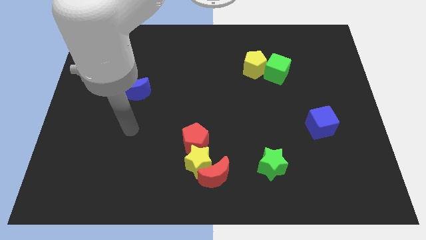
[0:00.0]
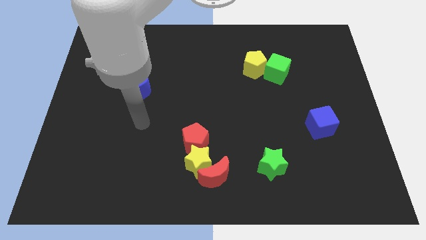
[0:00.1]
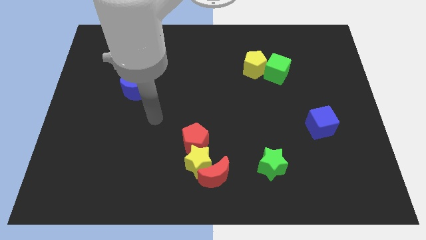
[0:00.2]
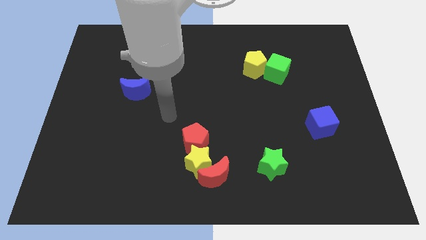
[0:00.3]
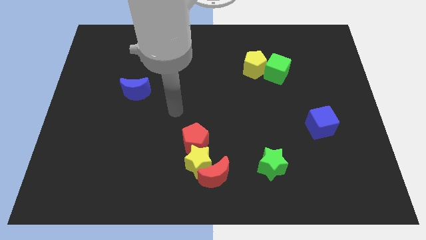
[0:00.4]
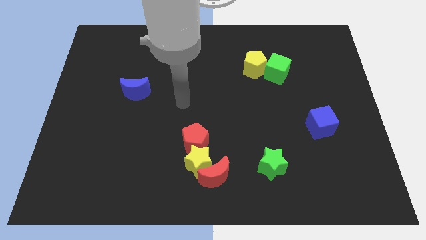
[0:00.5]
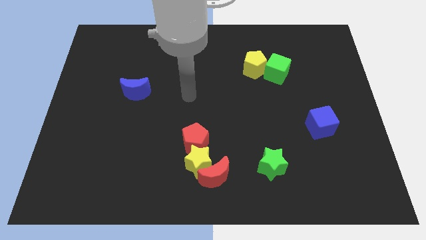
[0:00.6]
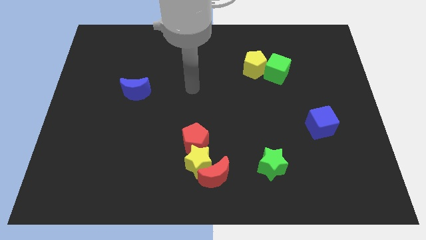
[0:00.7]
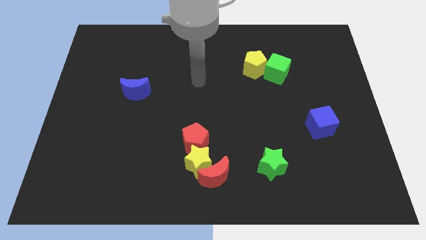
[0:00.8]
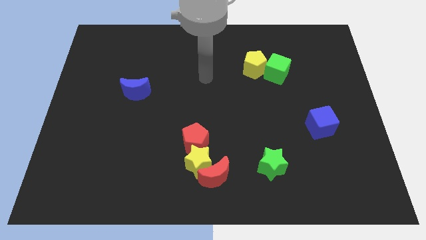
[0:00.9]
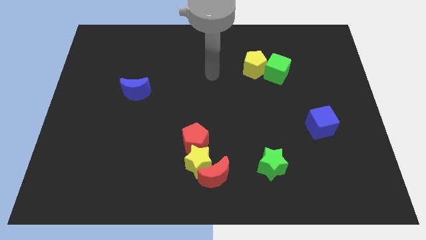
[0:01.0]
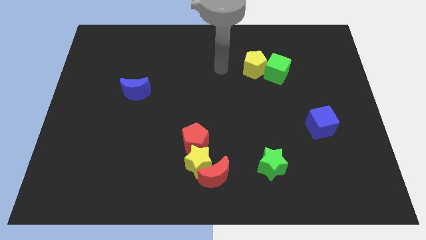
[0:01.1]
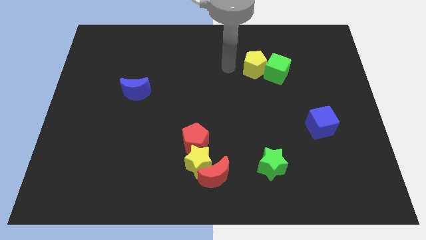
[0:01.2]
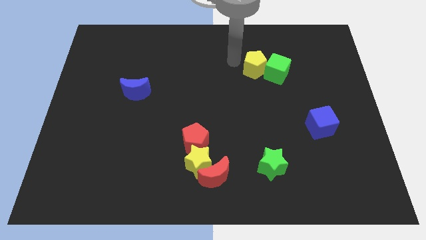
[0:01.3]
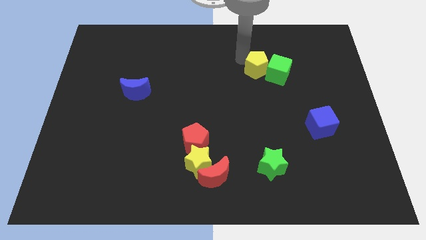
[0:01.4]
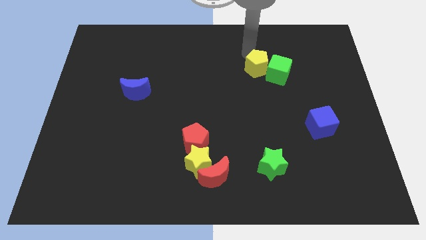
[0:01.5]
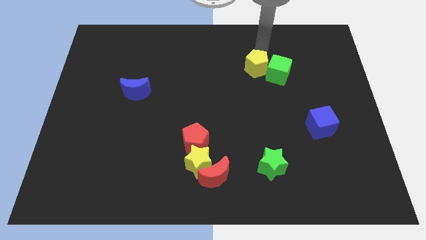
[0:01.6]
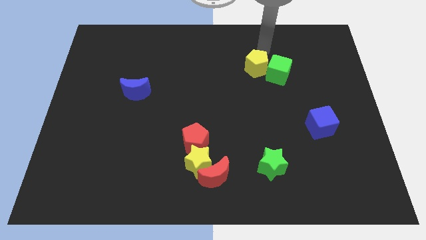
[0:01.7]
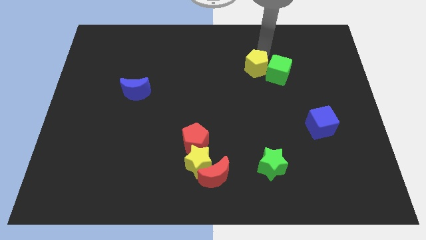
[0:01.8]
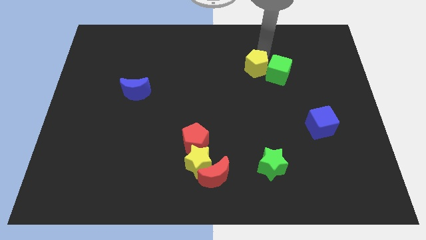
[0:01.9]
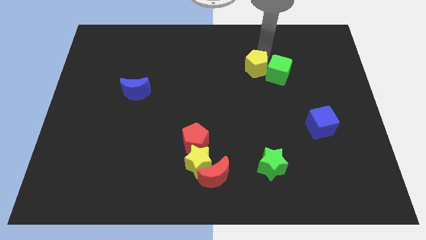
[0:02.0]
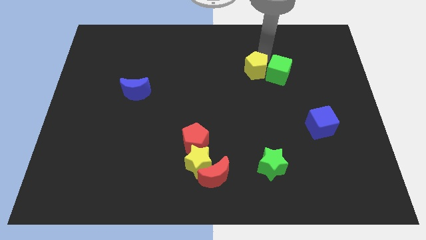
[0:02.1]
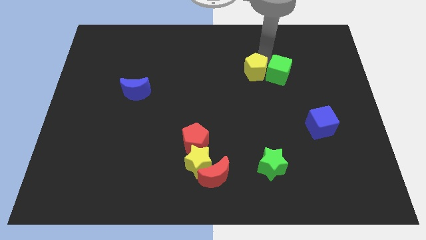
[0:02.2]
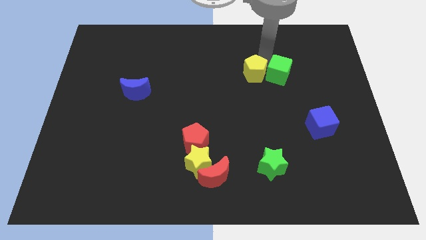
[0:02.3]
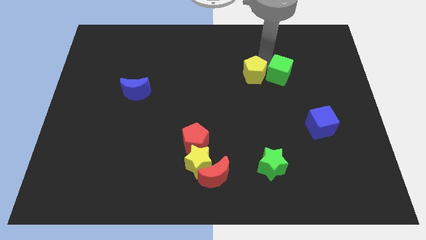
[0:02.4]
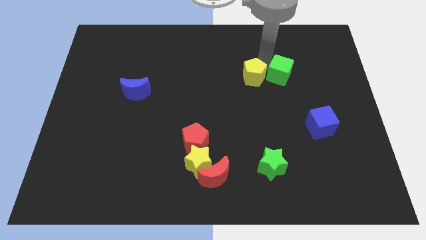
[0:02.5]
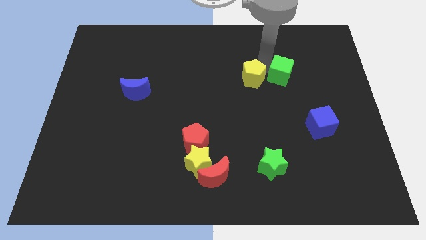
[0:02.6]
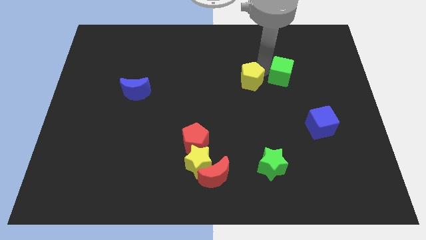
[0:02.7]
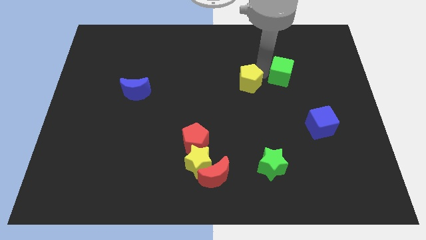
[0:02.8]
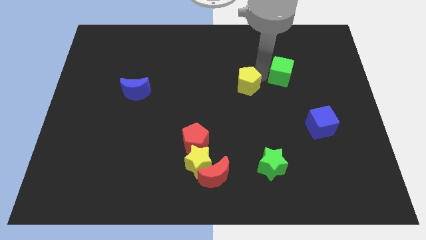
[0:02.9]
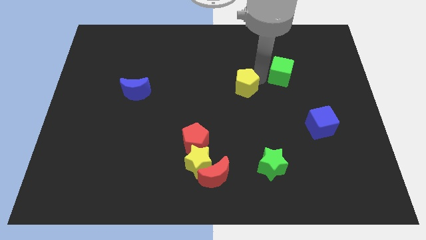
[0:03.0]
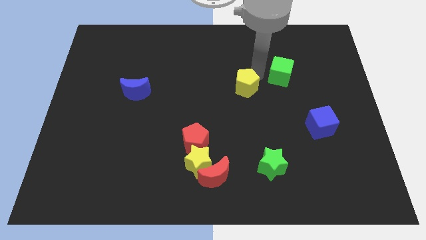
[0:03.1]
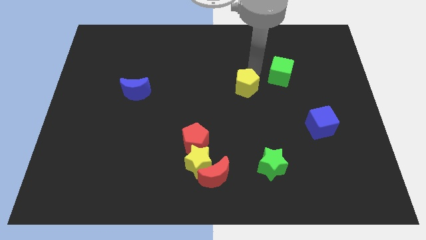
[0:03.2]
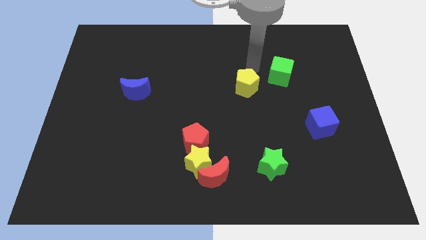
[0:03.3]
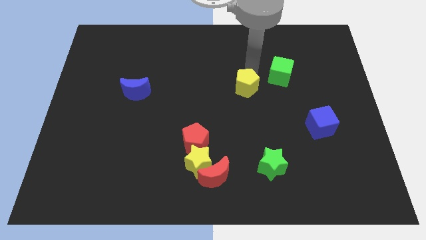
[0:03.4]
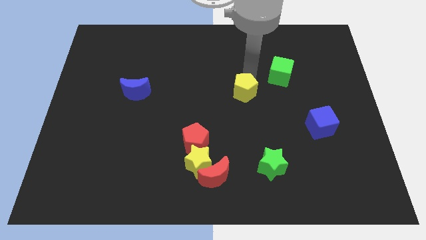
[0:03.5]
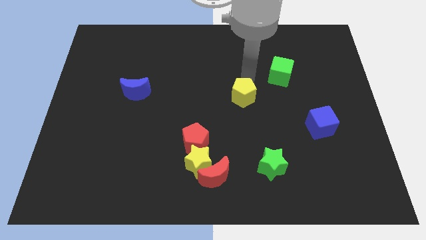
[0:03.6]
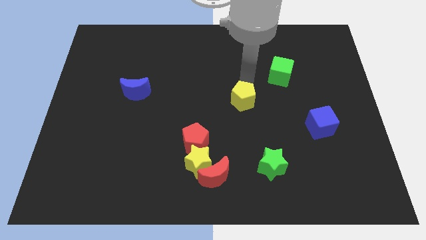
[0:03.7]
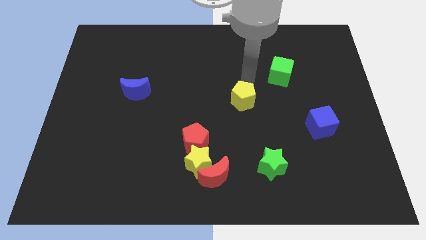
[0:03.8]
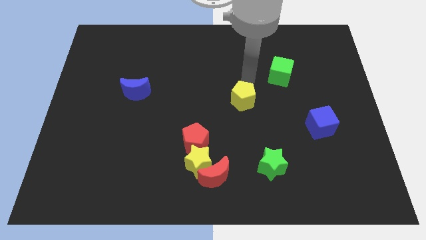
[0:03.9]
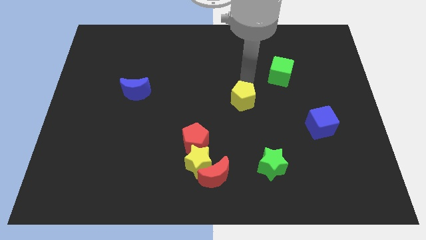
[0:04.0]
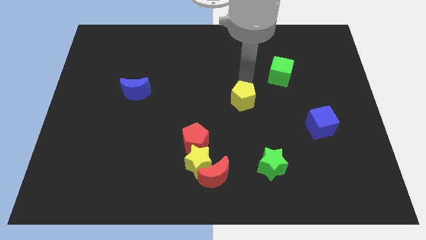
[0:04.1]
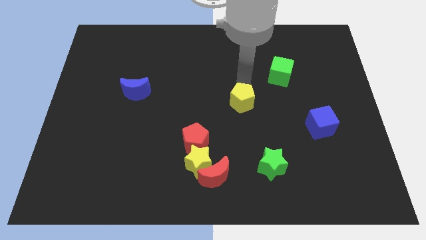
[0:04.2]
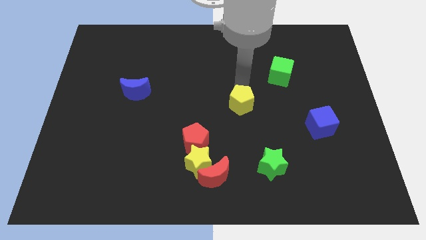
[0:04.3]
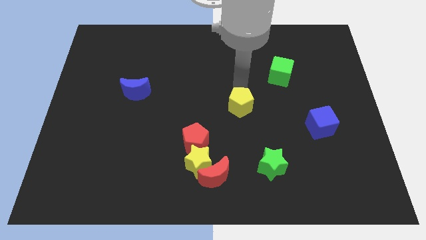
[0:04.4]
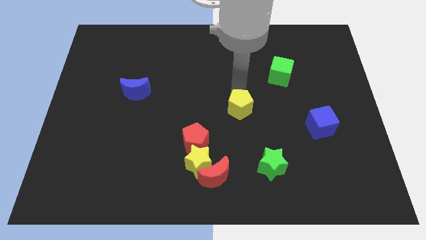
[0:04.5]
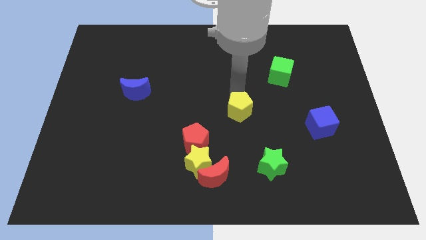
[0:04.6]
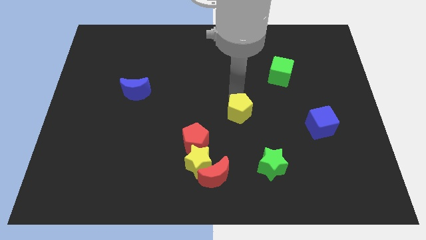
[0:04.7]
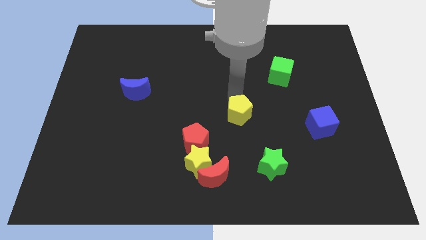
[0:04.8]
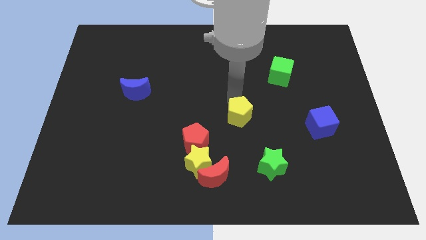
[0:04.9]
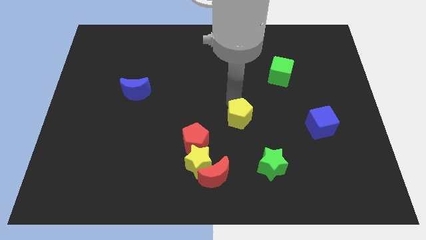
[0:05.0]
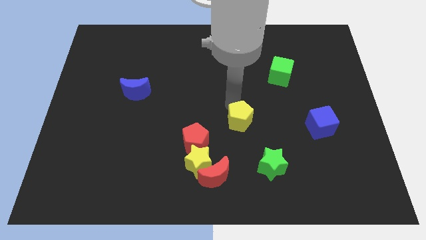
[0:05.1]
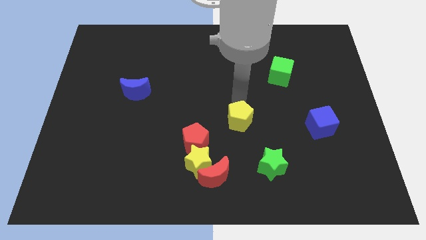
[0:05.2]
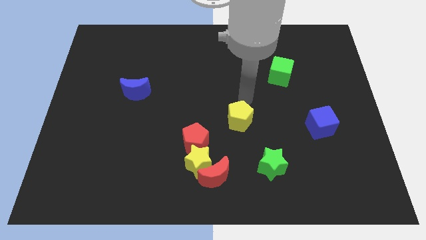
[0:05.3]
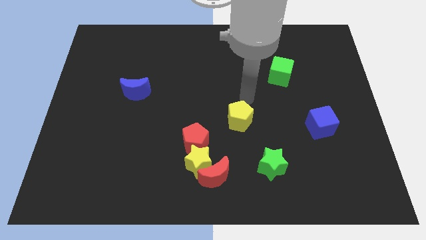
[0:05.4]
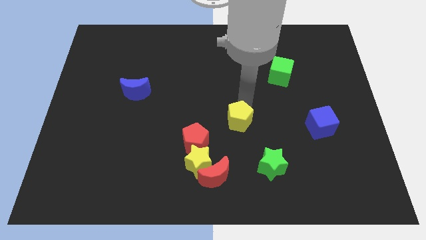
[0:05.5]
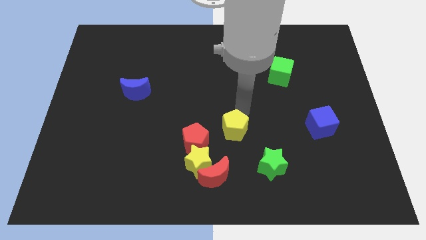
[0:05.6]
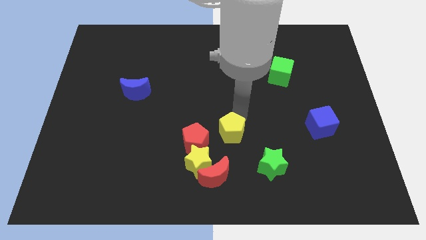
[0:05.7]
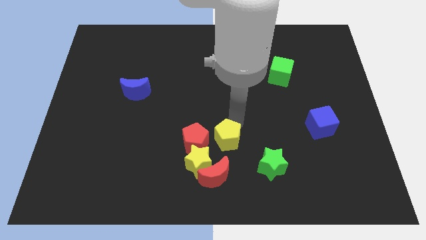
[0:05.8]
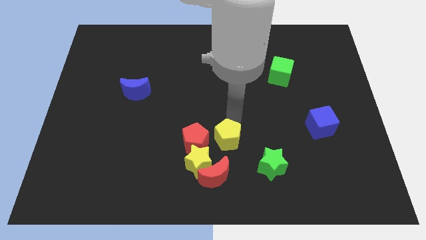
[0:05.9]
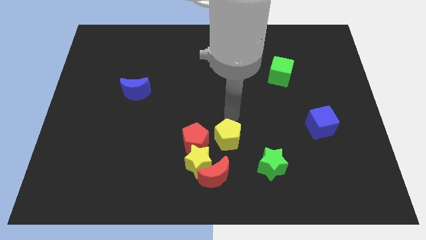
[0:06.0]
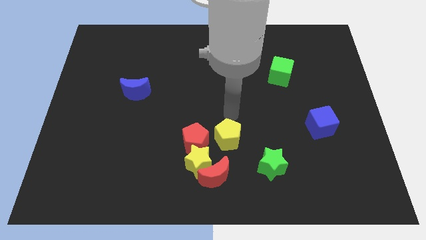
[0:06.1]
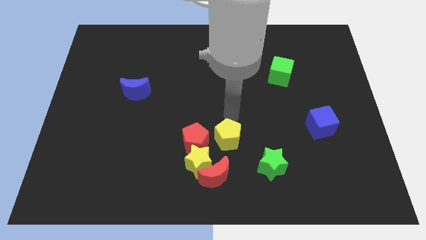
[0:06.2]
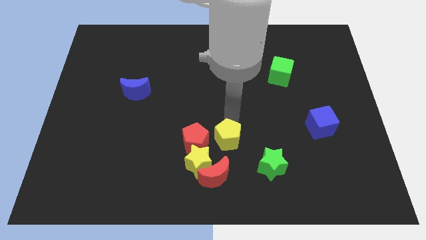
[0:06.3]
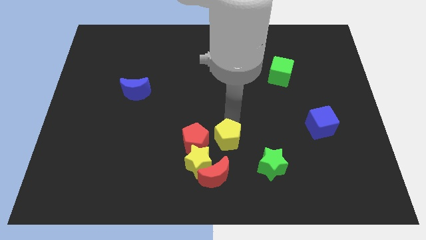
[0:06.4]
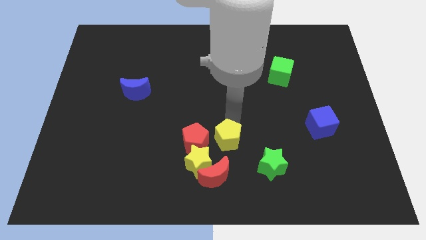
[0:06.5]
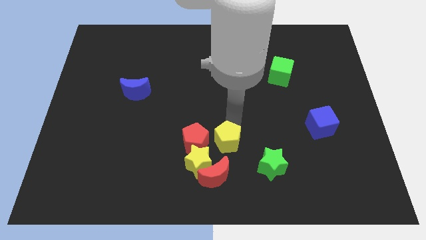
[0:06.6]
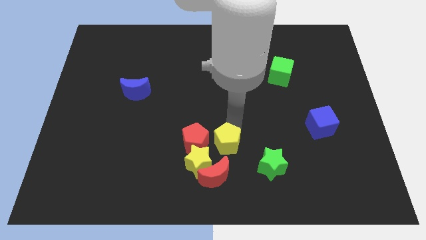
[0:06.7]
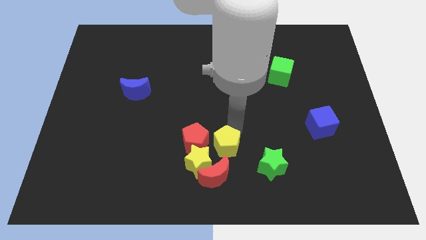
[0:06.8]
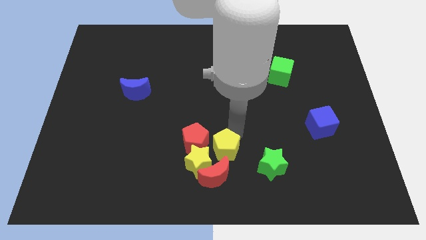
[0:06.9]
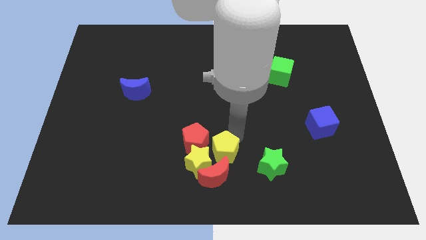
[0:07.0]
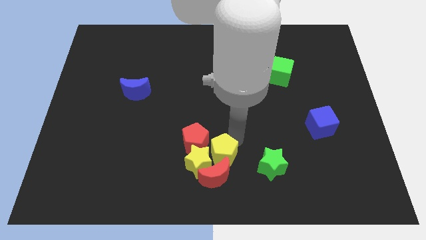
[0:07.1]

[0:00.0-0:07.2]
move the yellow pentagon next to the red moon
